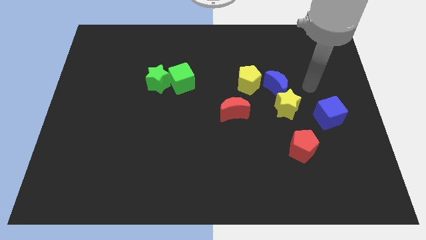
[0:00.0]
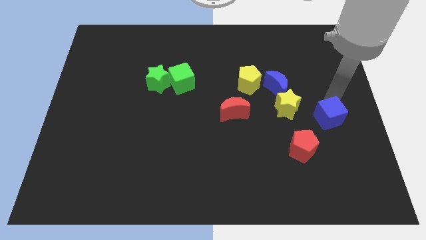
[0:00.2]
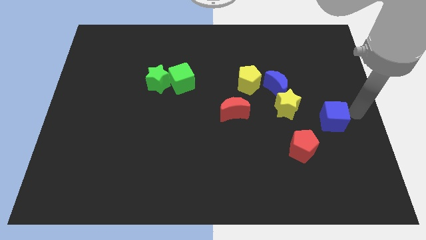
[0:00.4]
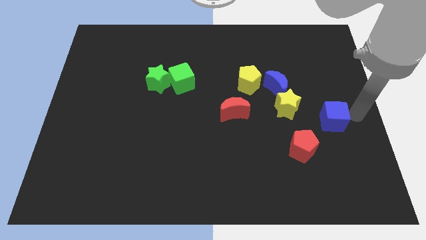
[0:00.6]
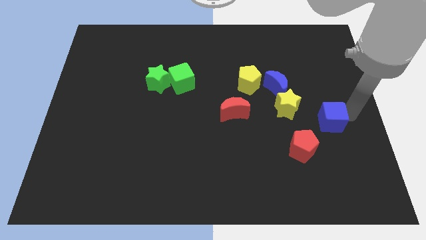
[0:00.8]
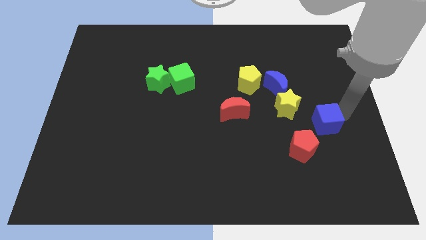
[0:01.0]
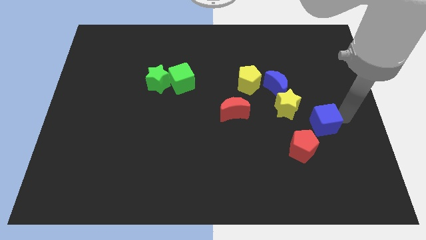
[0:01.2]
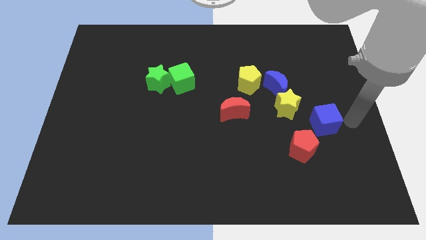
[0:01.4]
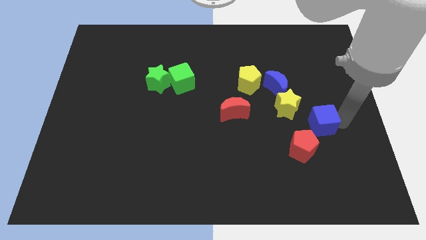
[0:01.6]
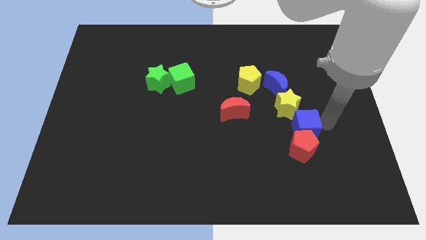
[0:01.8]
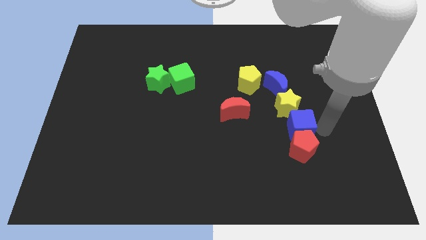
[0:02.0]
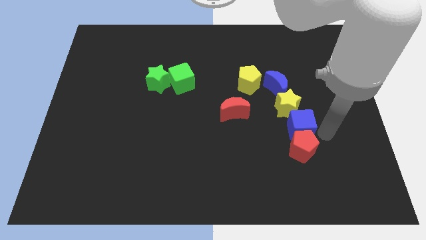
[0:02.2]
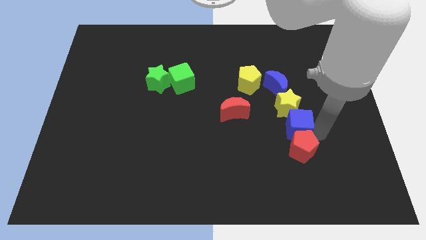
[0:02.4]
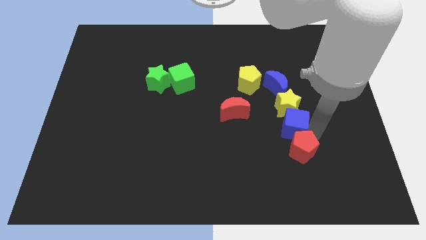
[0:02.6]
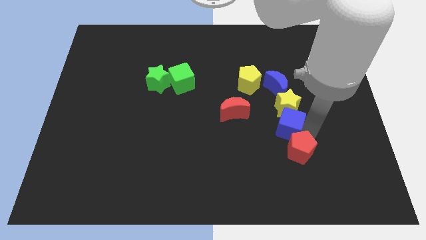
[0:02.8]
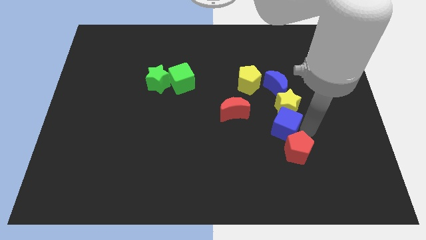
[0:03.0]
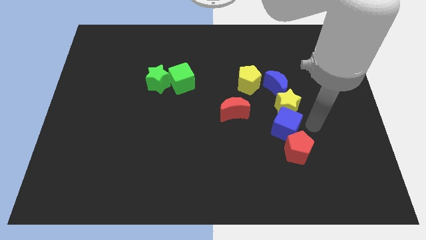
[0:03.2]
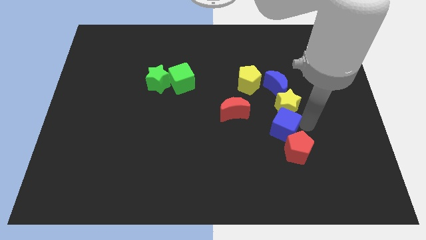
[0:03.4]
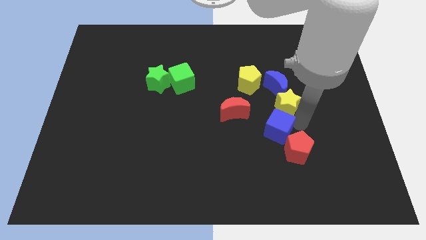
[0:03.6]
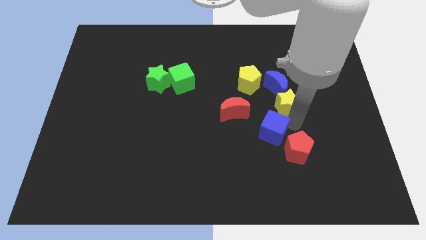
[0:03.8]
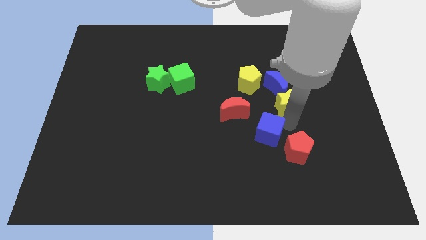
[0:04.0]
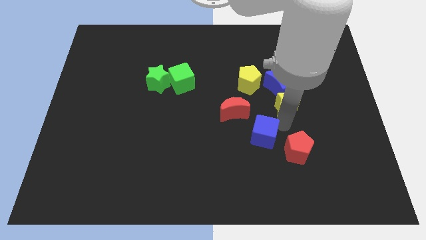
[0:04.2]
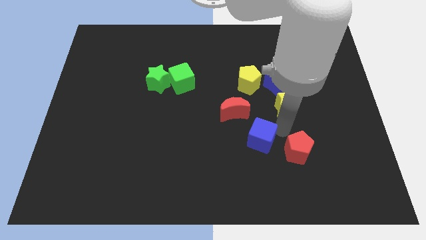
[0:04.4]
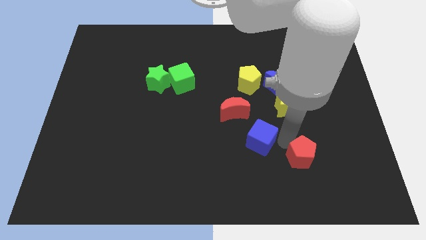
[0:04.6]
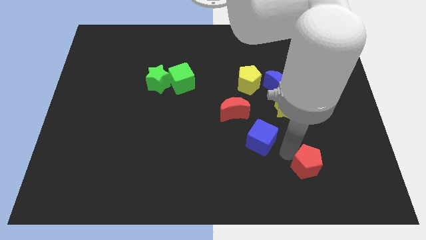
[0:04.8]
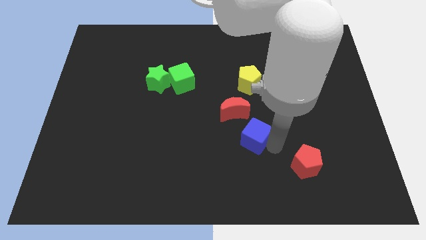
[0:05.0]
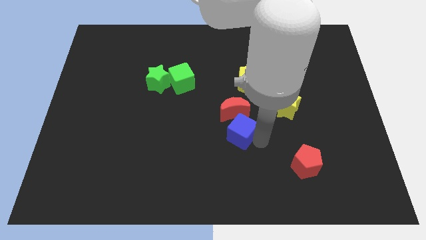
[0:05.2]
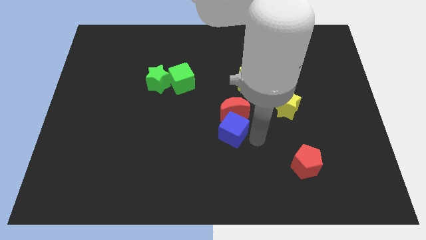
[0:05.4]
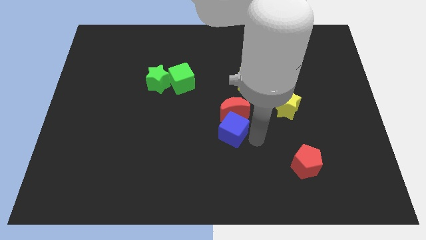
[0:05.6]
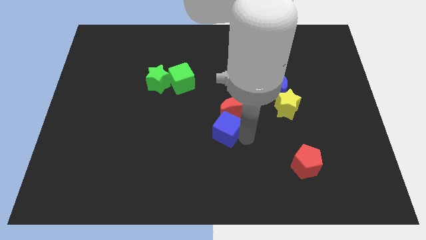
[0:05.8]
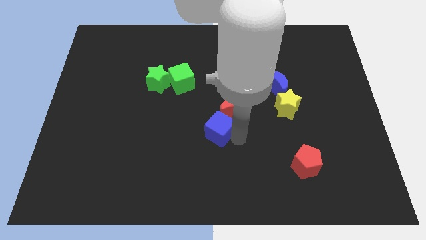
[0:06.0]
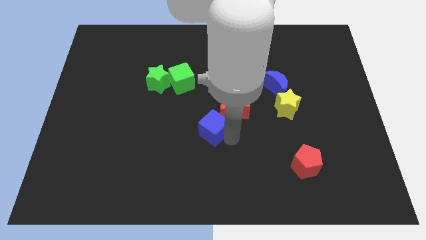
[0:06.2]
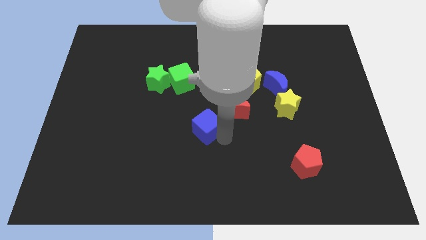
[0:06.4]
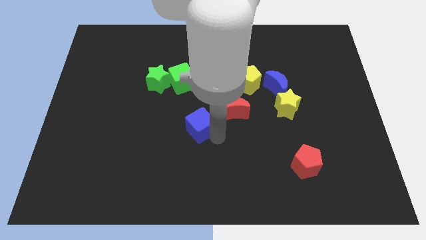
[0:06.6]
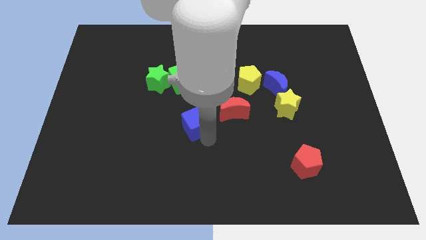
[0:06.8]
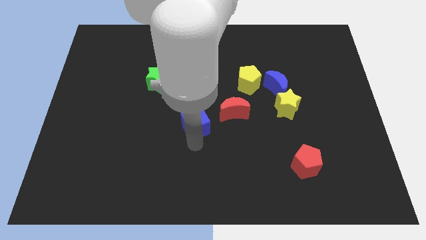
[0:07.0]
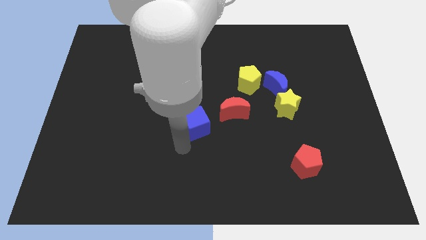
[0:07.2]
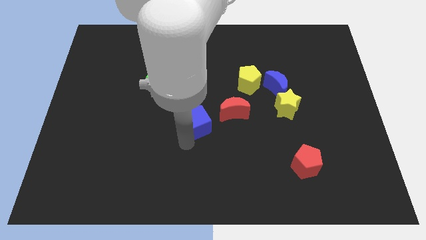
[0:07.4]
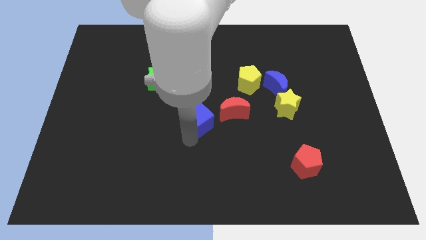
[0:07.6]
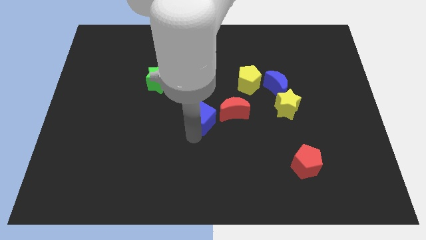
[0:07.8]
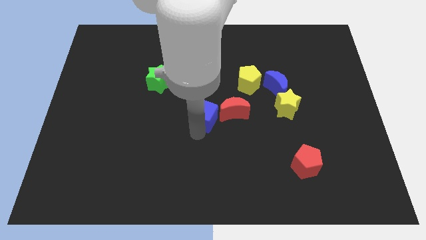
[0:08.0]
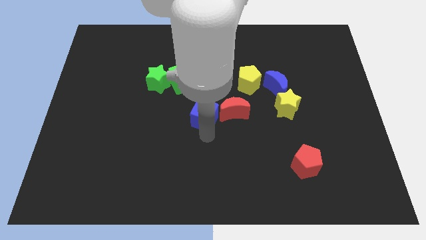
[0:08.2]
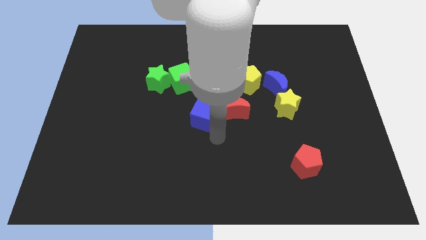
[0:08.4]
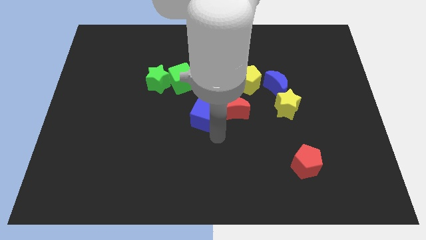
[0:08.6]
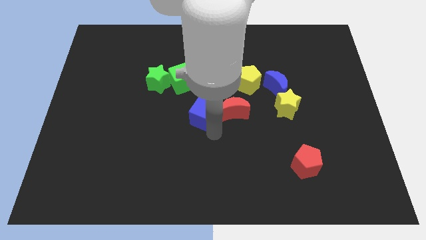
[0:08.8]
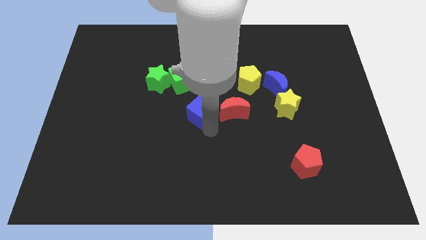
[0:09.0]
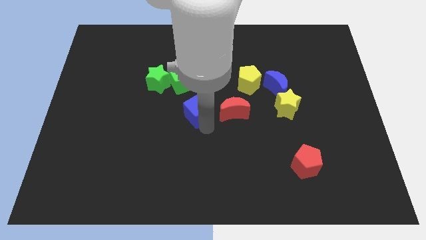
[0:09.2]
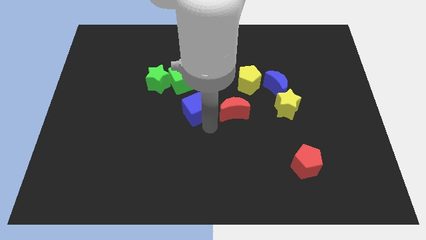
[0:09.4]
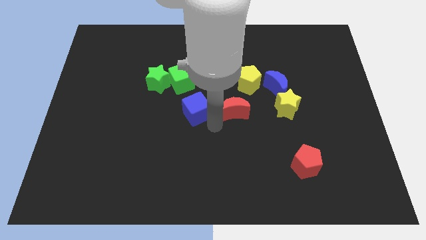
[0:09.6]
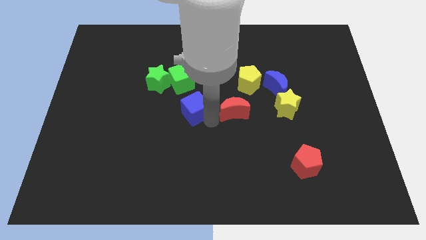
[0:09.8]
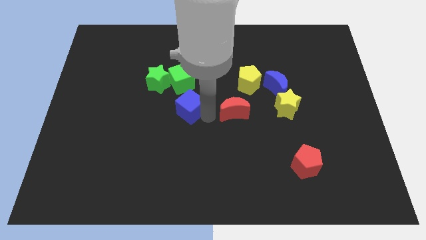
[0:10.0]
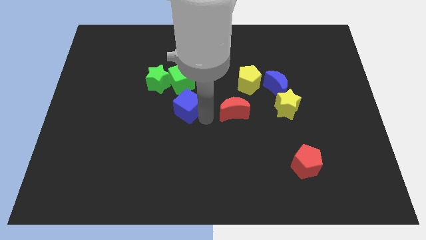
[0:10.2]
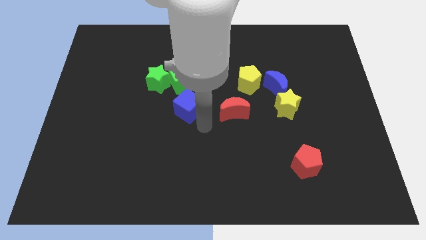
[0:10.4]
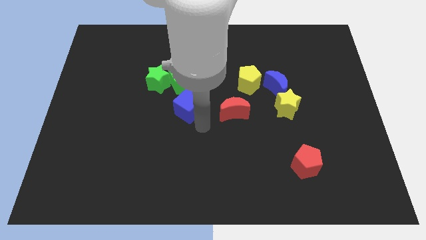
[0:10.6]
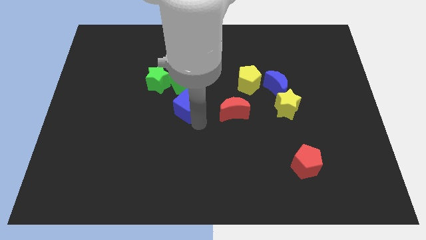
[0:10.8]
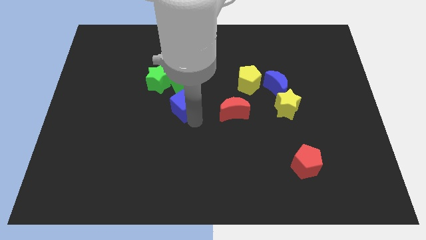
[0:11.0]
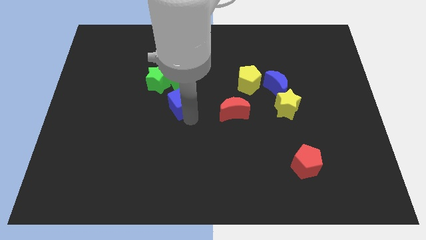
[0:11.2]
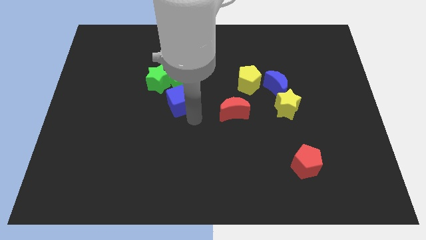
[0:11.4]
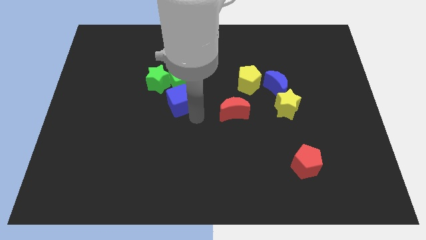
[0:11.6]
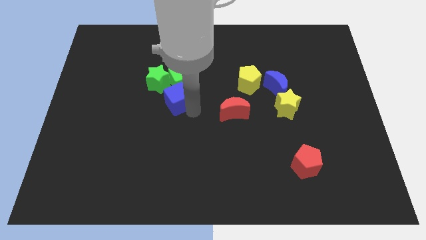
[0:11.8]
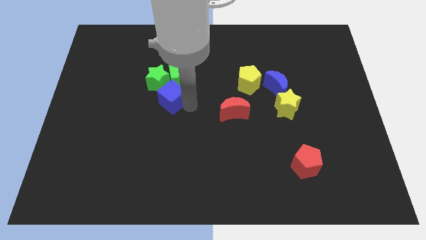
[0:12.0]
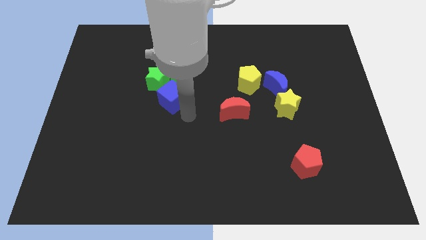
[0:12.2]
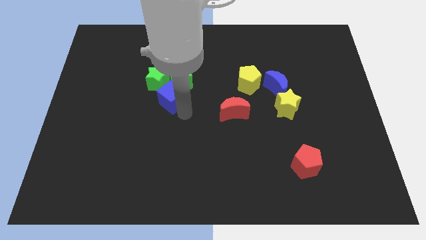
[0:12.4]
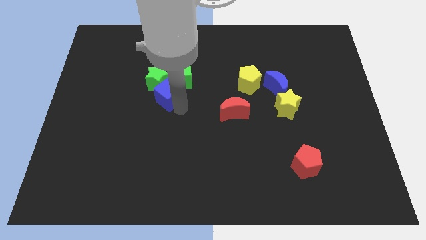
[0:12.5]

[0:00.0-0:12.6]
push the blue cube next to the green star

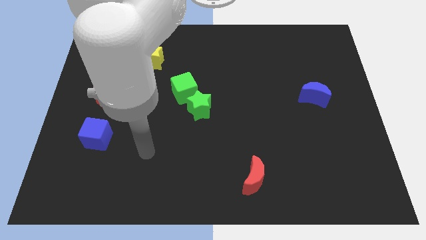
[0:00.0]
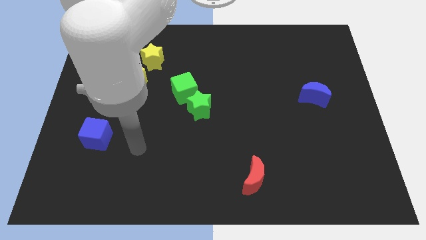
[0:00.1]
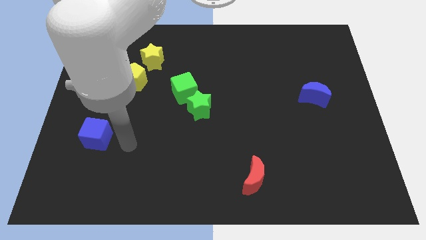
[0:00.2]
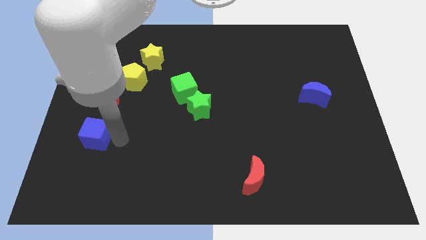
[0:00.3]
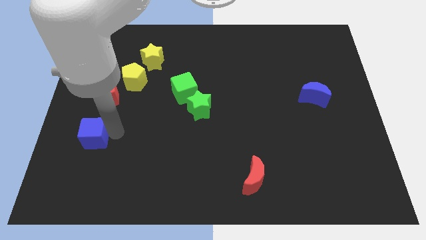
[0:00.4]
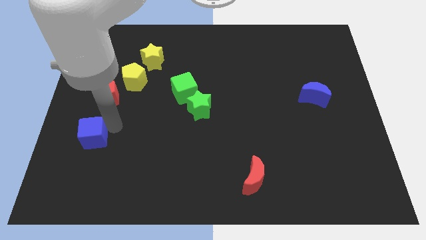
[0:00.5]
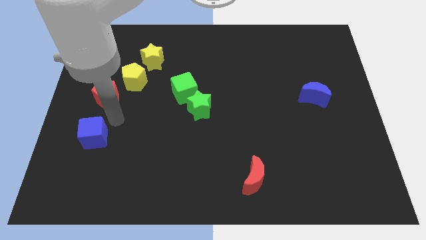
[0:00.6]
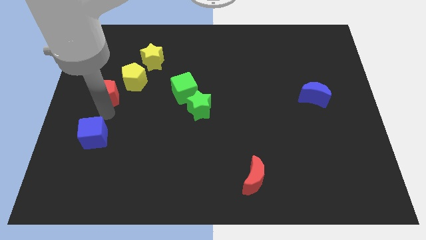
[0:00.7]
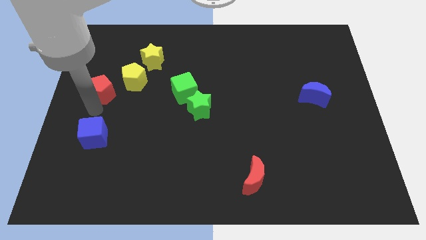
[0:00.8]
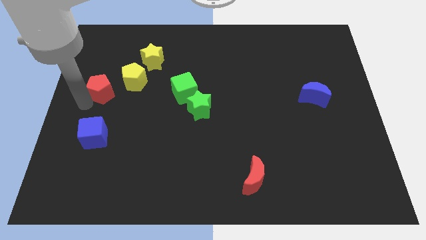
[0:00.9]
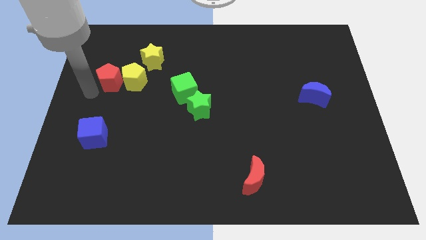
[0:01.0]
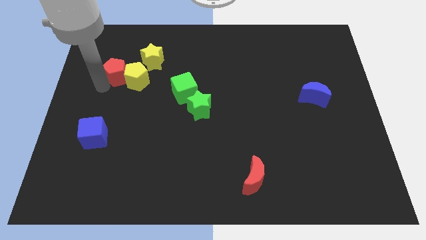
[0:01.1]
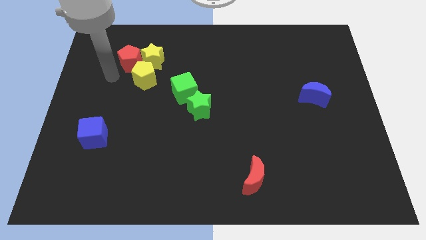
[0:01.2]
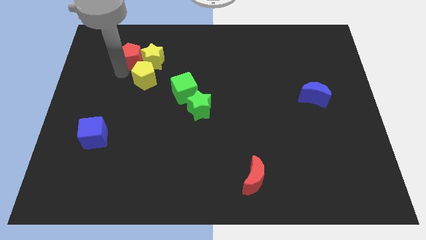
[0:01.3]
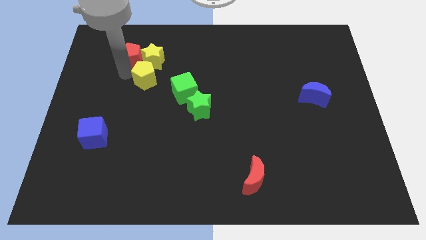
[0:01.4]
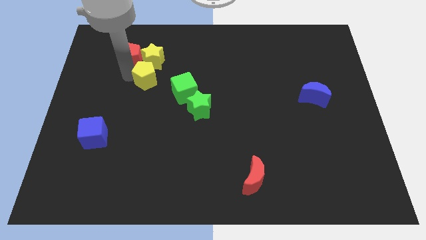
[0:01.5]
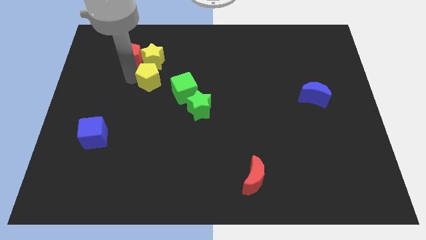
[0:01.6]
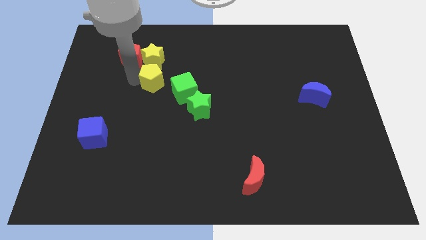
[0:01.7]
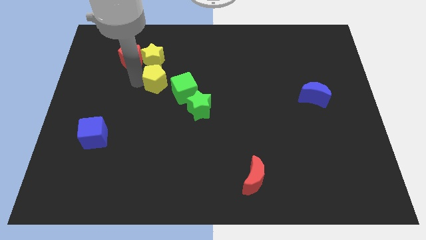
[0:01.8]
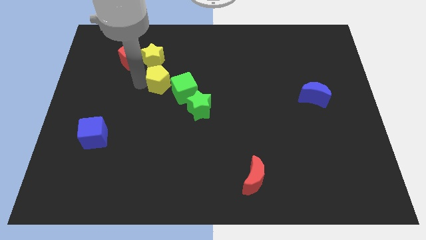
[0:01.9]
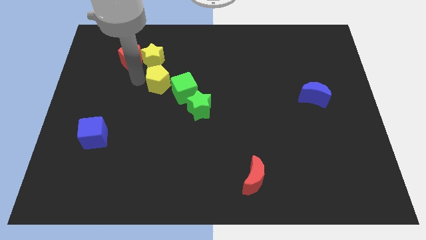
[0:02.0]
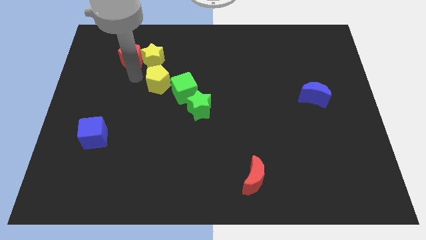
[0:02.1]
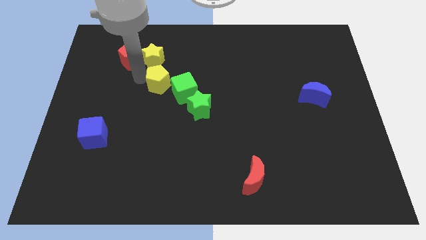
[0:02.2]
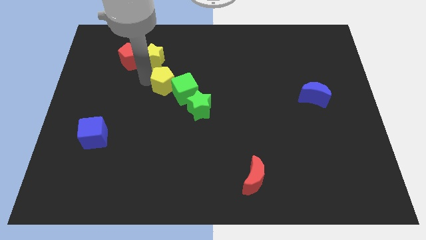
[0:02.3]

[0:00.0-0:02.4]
slide the yellow pentagon close to the green cube
